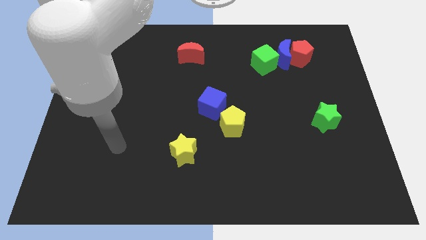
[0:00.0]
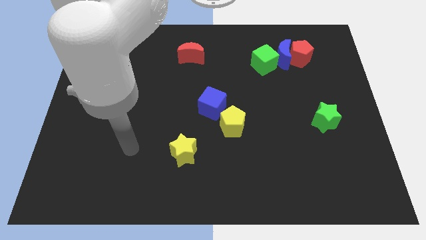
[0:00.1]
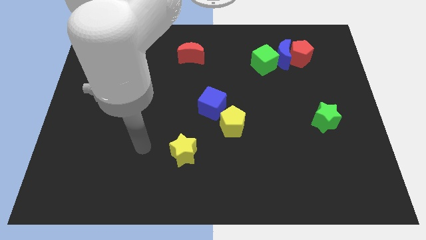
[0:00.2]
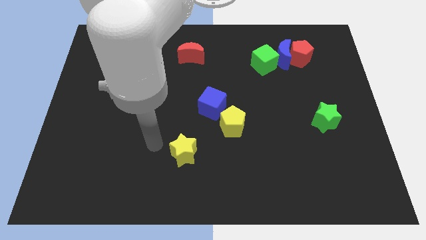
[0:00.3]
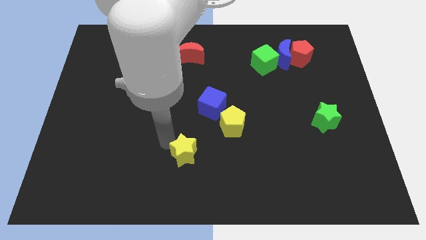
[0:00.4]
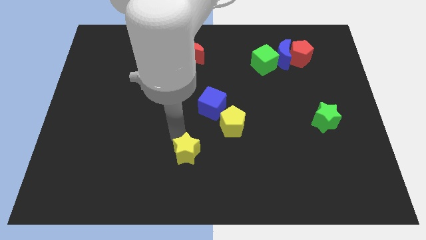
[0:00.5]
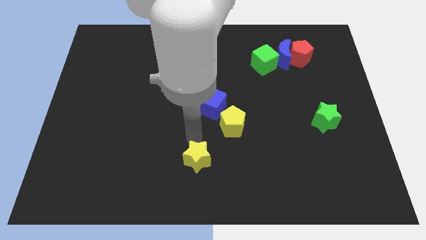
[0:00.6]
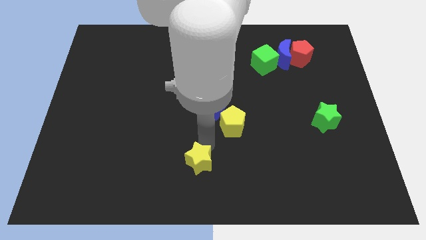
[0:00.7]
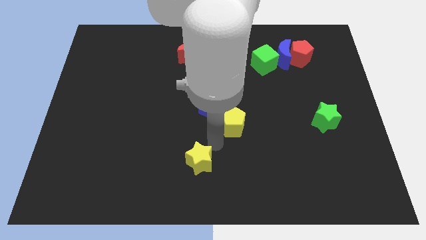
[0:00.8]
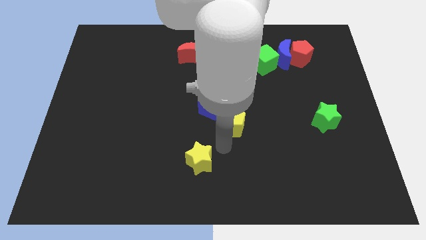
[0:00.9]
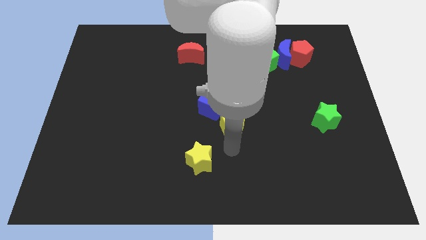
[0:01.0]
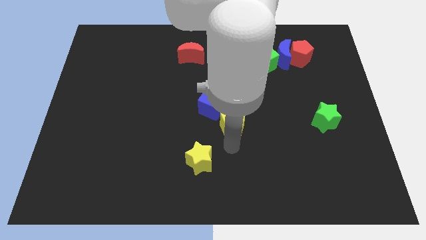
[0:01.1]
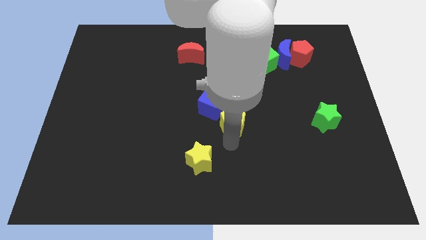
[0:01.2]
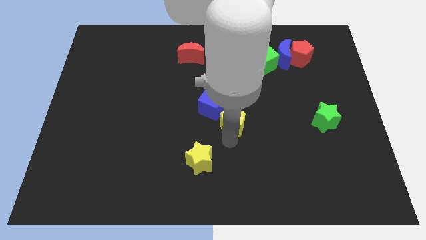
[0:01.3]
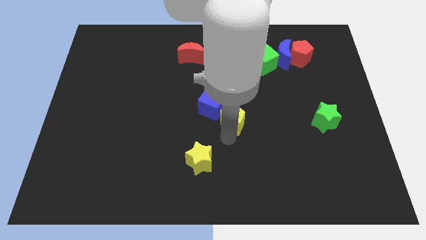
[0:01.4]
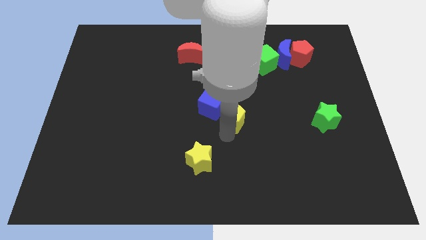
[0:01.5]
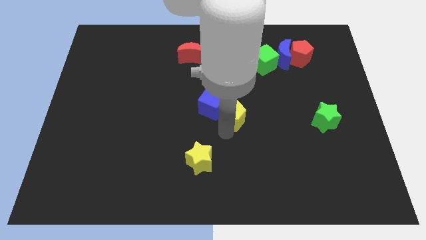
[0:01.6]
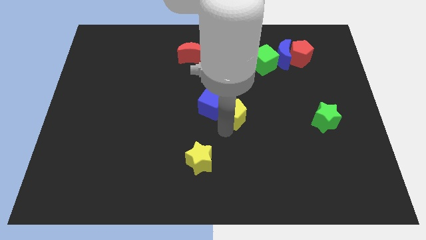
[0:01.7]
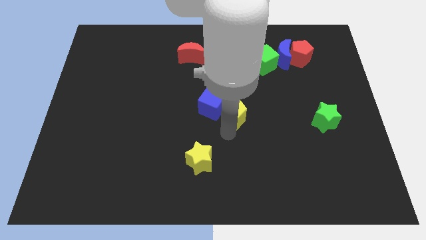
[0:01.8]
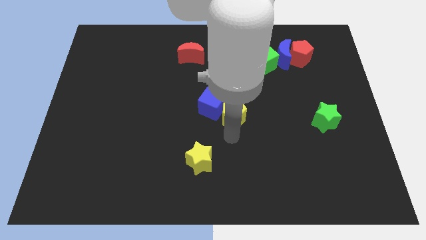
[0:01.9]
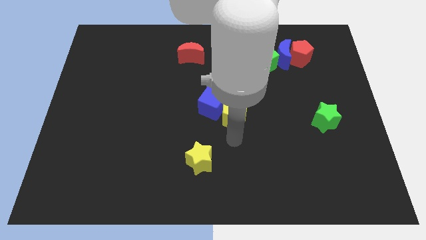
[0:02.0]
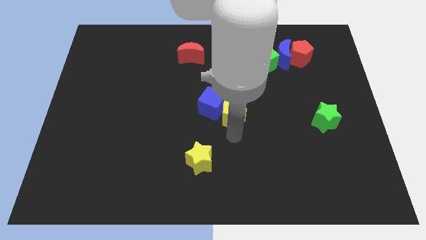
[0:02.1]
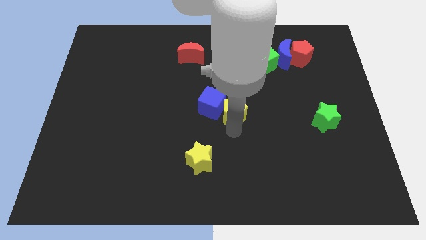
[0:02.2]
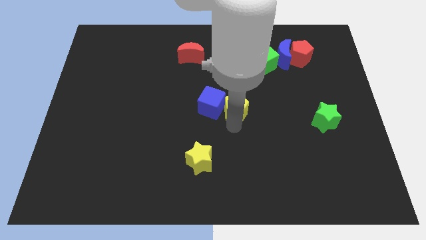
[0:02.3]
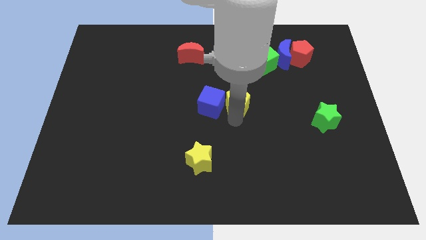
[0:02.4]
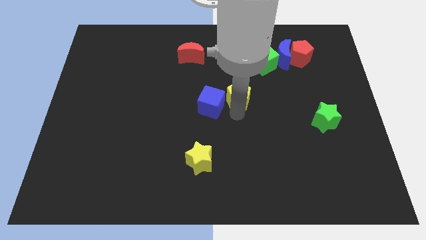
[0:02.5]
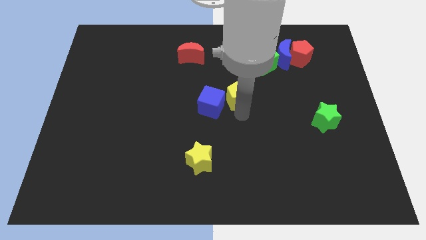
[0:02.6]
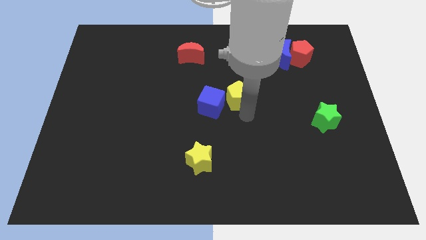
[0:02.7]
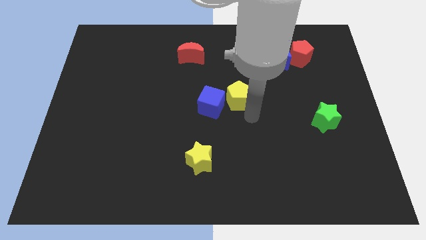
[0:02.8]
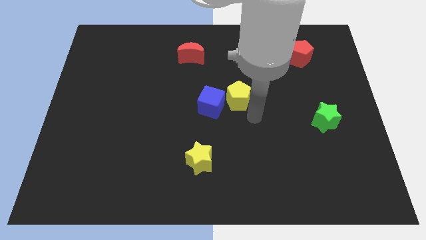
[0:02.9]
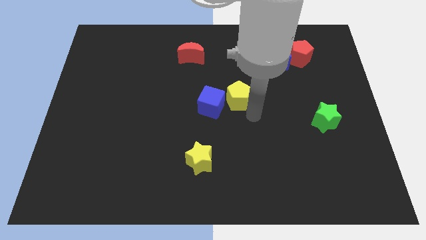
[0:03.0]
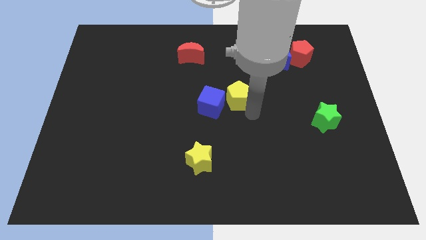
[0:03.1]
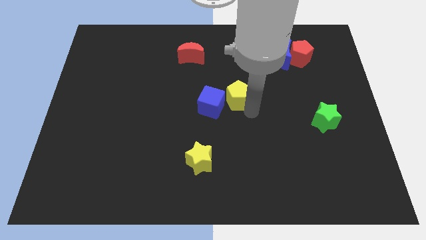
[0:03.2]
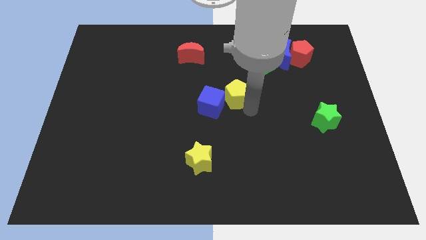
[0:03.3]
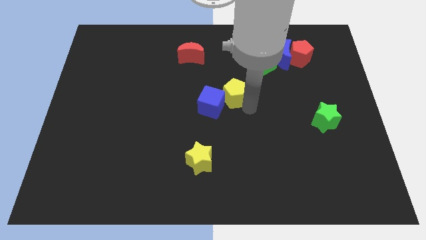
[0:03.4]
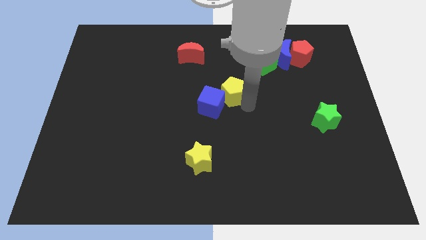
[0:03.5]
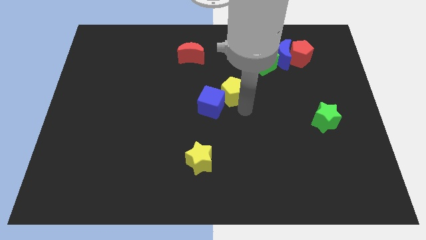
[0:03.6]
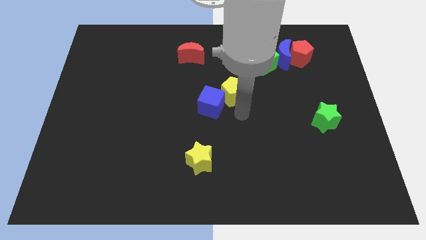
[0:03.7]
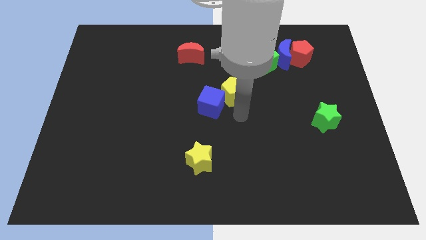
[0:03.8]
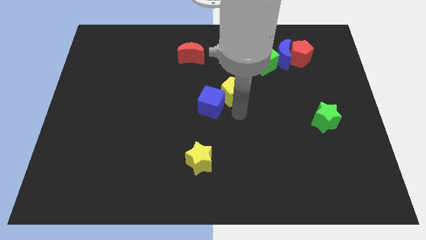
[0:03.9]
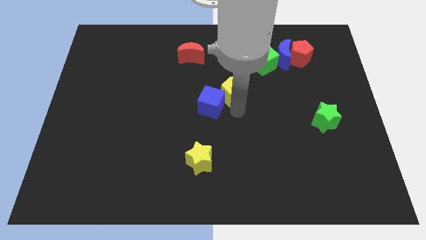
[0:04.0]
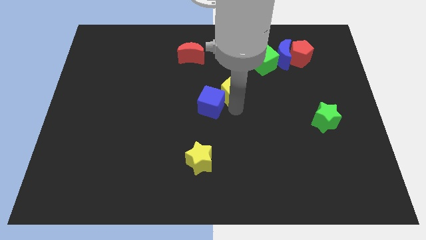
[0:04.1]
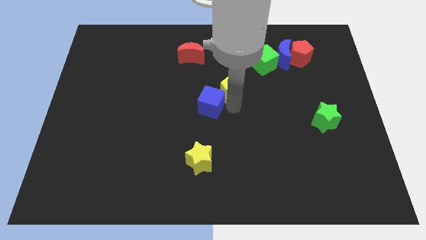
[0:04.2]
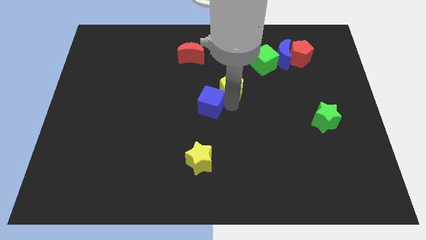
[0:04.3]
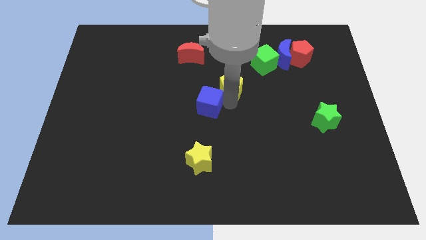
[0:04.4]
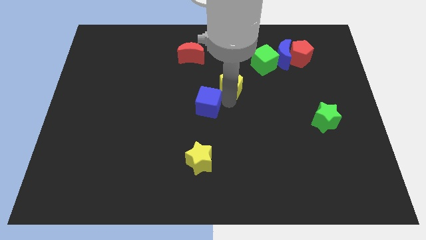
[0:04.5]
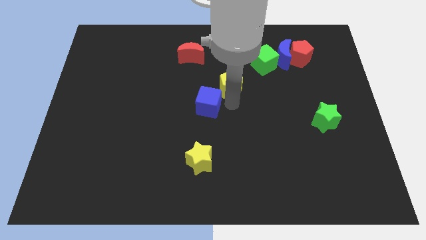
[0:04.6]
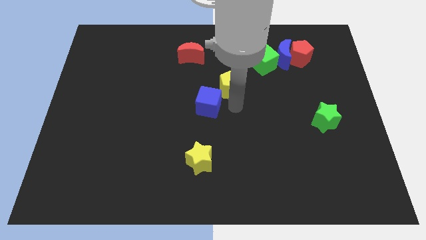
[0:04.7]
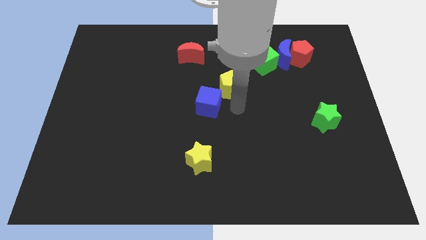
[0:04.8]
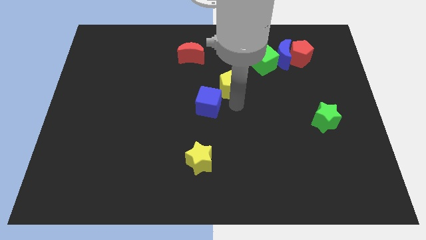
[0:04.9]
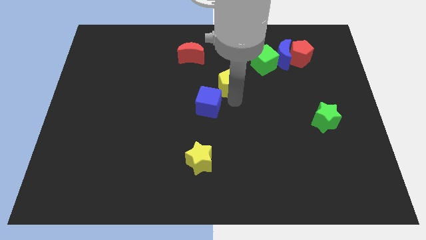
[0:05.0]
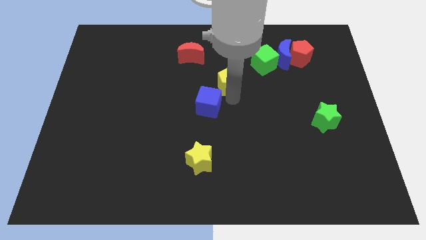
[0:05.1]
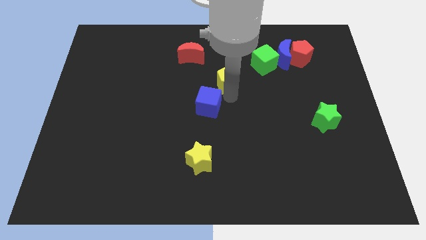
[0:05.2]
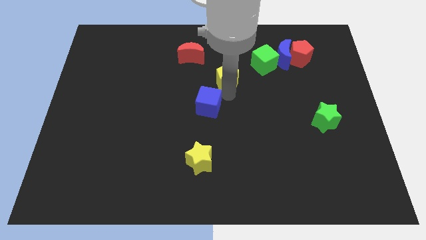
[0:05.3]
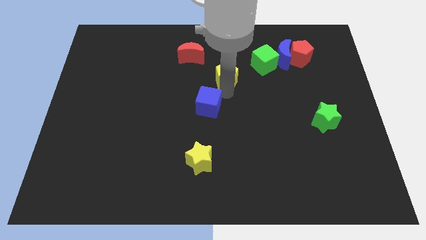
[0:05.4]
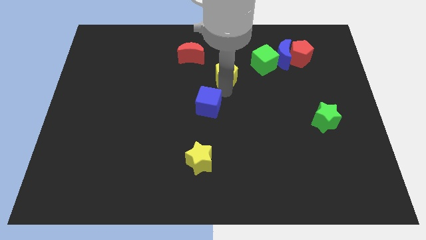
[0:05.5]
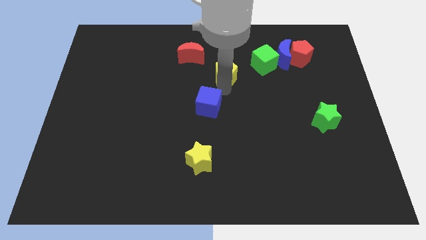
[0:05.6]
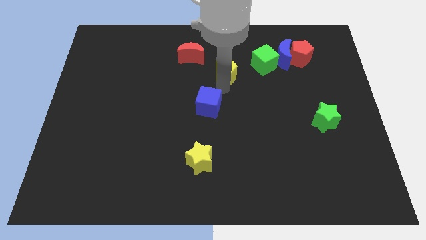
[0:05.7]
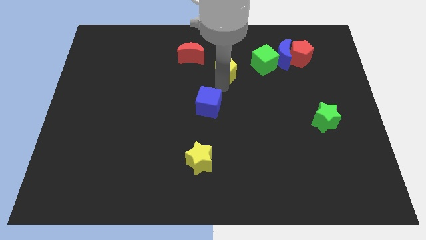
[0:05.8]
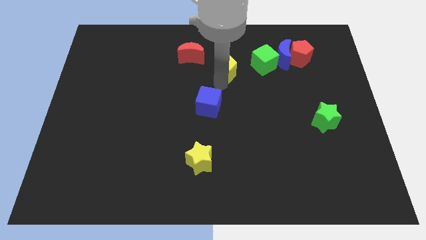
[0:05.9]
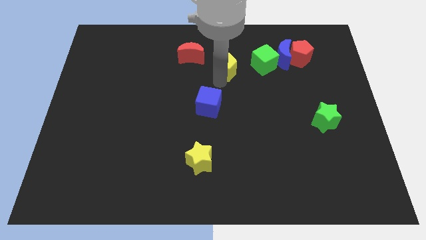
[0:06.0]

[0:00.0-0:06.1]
slide the yellow pentagon right of the red moon

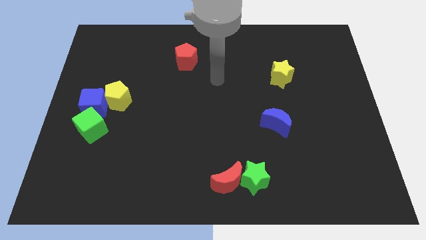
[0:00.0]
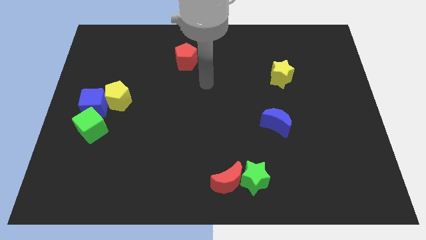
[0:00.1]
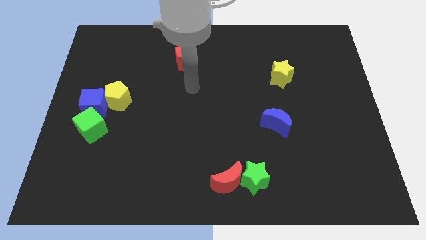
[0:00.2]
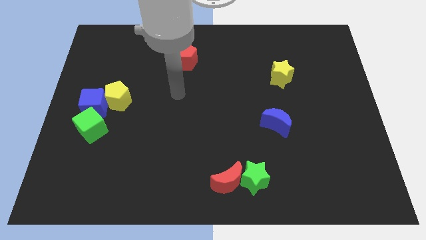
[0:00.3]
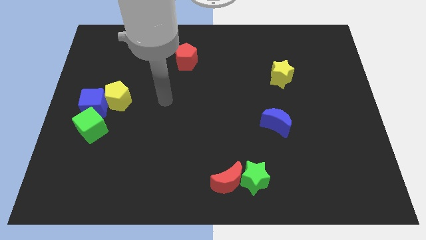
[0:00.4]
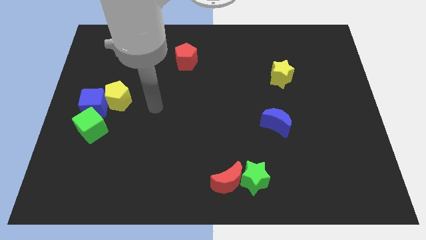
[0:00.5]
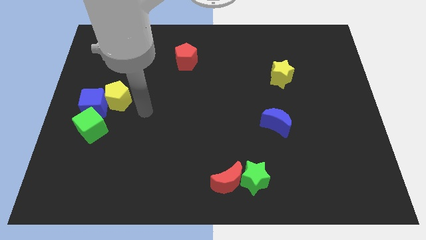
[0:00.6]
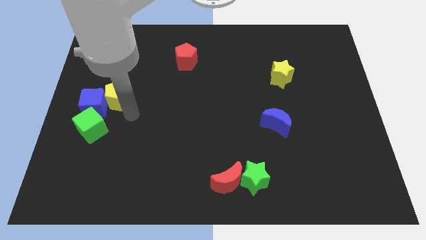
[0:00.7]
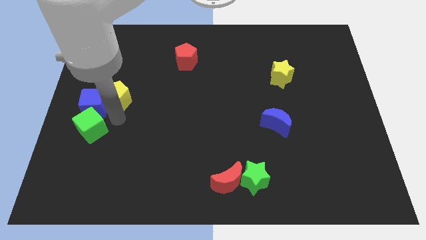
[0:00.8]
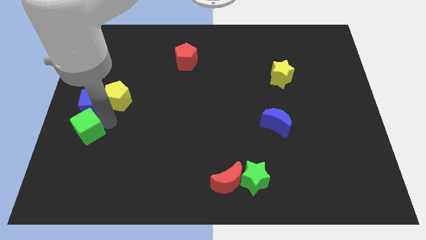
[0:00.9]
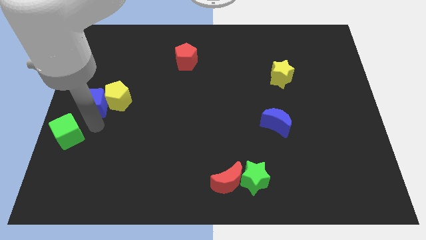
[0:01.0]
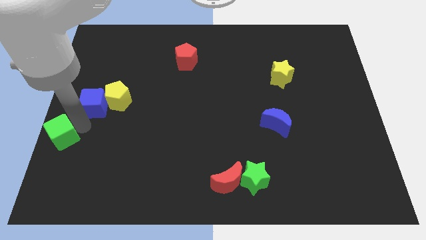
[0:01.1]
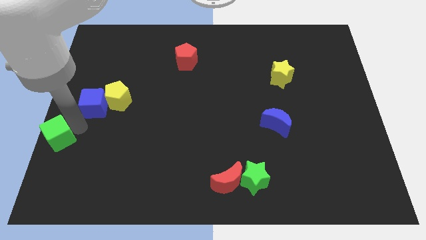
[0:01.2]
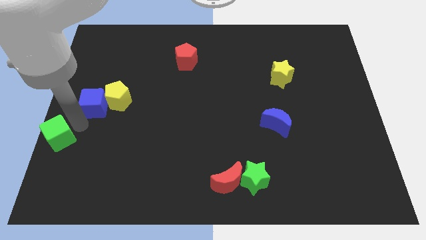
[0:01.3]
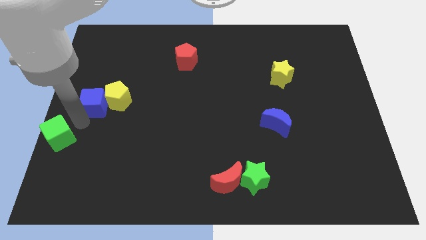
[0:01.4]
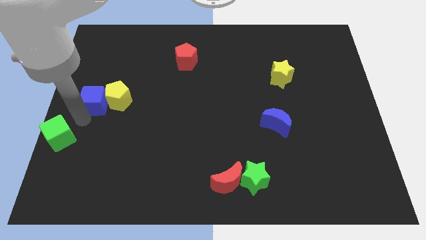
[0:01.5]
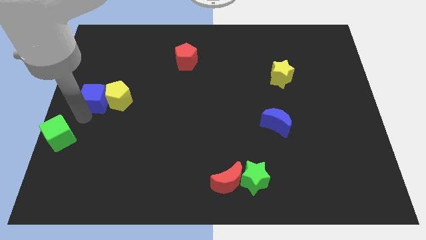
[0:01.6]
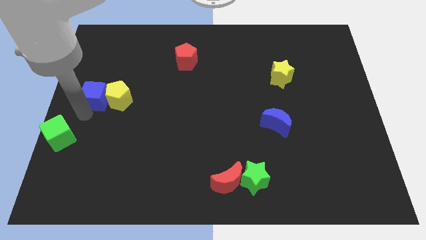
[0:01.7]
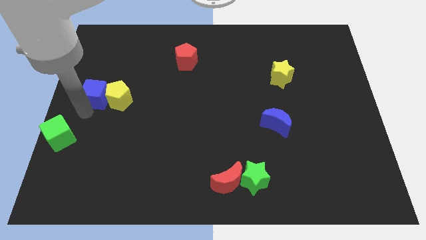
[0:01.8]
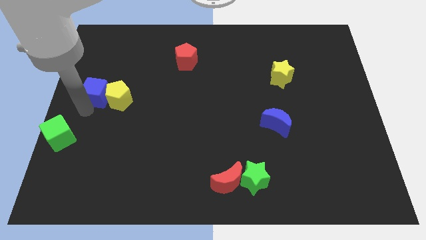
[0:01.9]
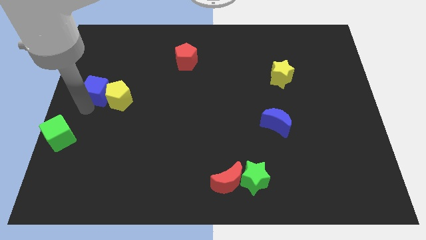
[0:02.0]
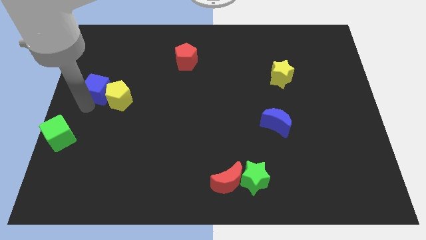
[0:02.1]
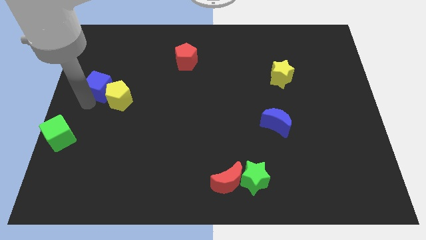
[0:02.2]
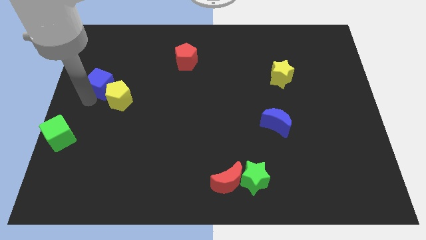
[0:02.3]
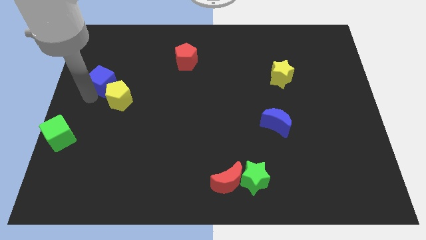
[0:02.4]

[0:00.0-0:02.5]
slide the blue cube to the top side of the yellow pentagon
